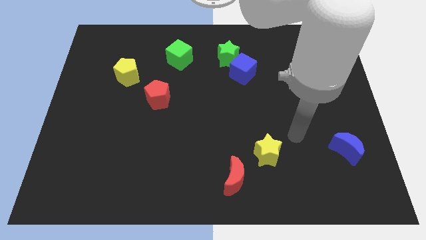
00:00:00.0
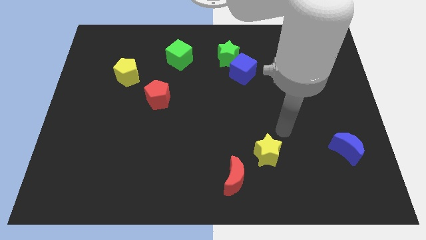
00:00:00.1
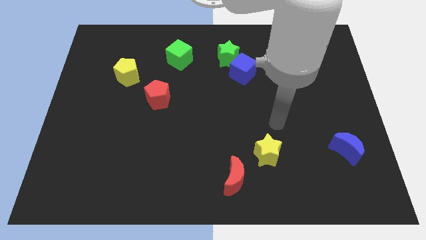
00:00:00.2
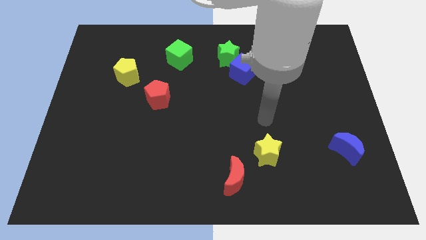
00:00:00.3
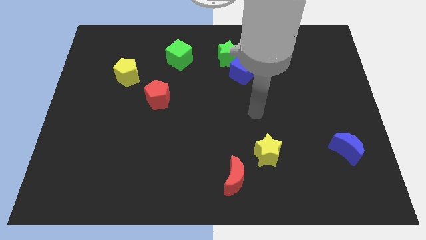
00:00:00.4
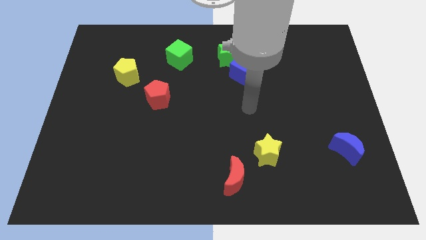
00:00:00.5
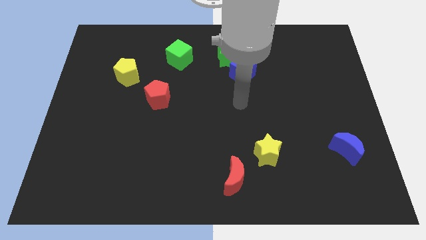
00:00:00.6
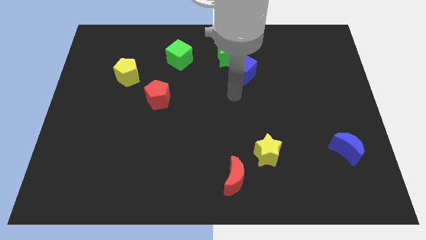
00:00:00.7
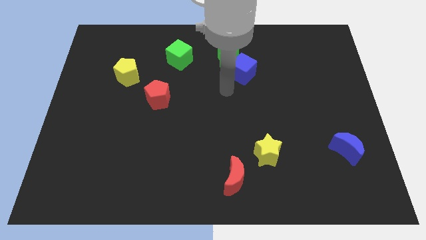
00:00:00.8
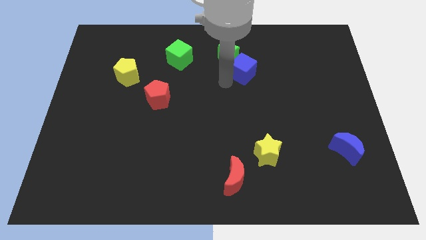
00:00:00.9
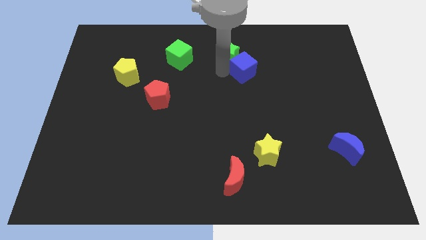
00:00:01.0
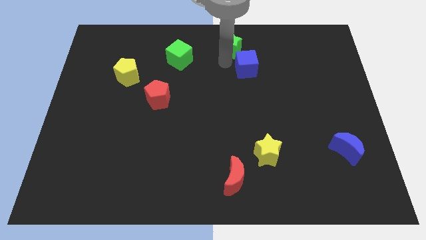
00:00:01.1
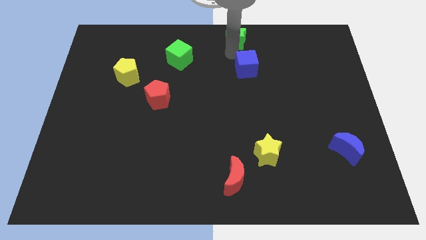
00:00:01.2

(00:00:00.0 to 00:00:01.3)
separate the blue cube from the green star

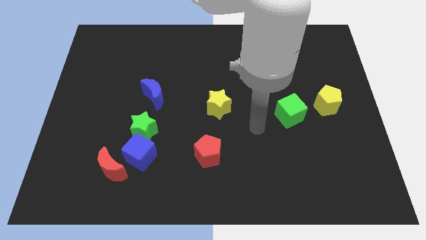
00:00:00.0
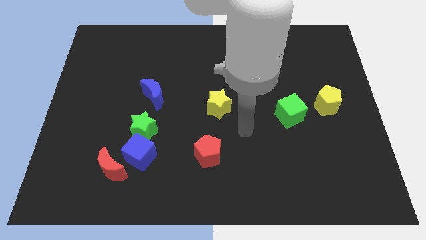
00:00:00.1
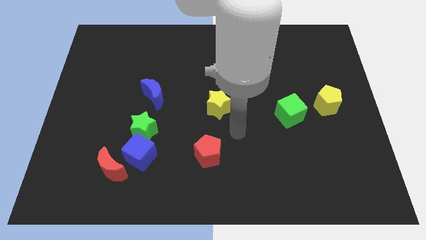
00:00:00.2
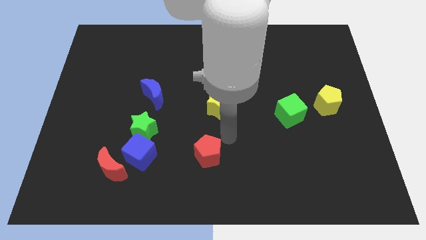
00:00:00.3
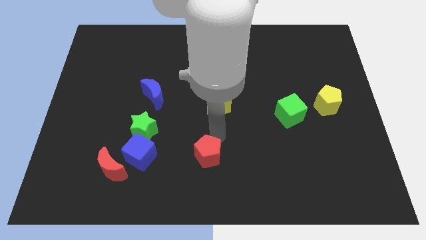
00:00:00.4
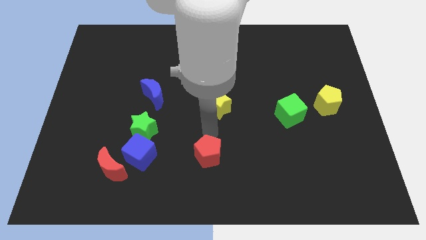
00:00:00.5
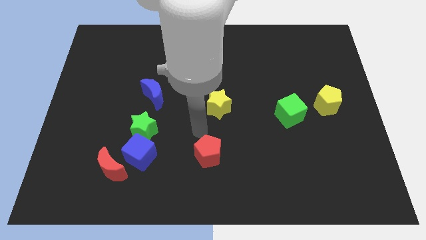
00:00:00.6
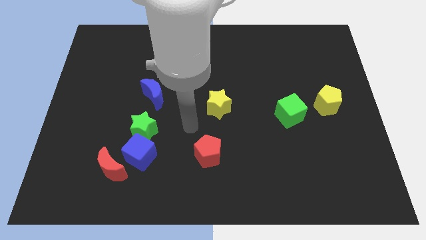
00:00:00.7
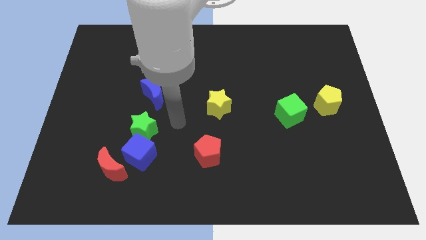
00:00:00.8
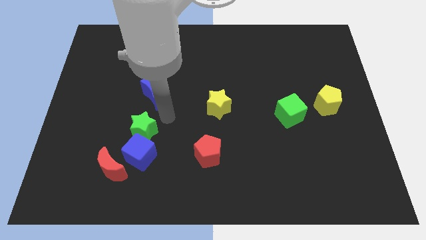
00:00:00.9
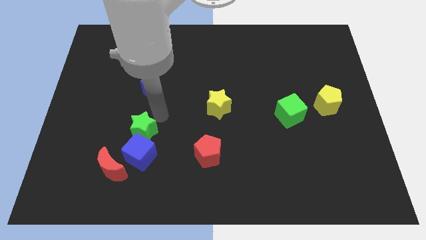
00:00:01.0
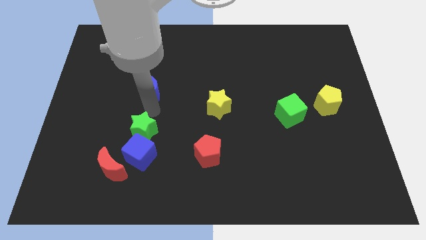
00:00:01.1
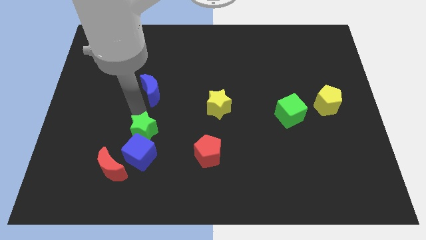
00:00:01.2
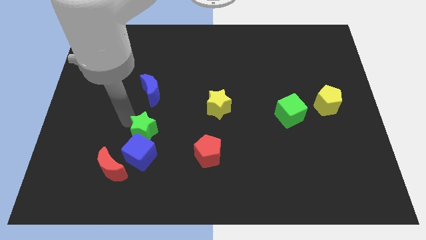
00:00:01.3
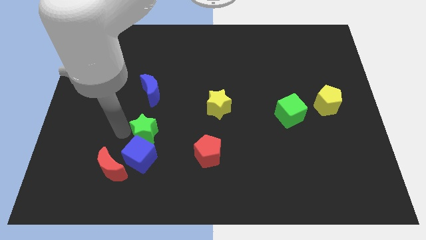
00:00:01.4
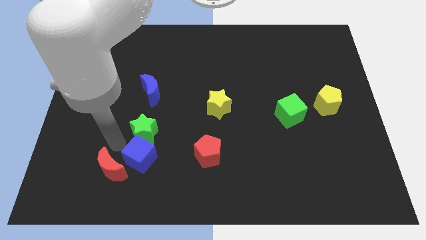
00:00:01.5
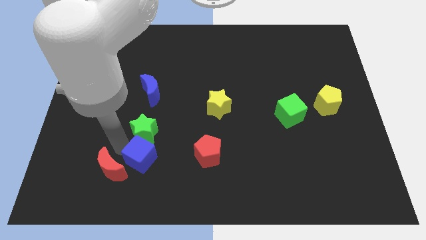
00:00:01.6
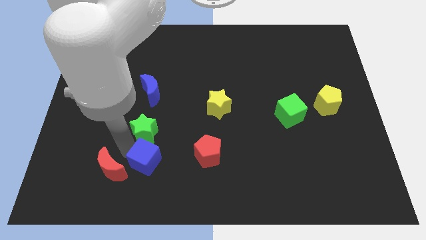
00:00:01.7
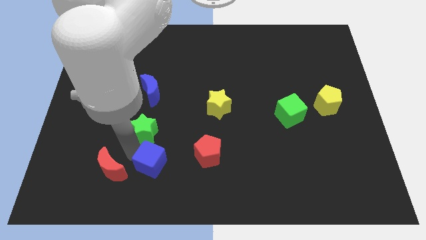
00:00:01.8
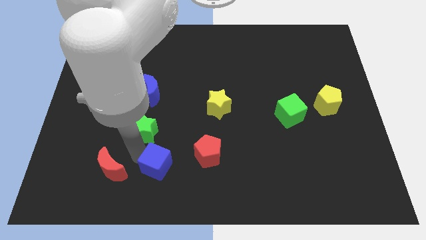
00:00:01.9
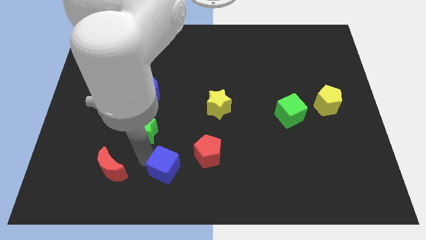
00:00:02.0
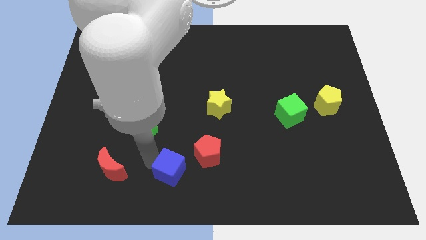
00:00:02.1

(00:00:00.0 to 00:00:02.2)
move the blue cube away from the green star and red moon

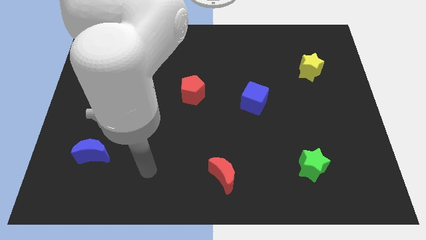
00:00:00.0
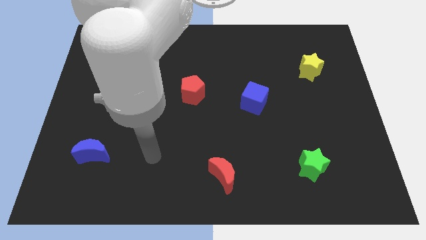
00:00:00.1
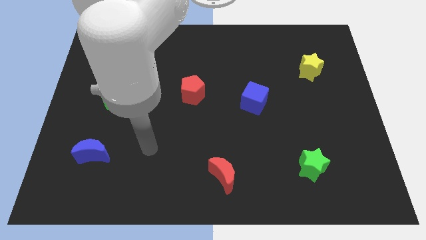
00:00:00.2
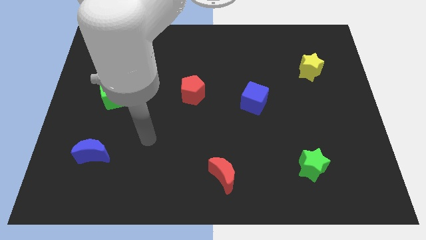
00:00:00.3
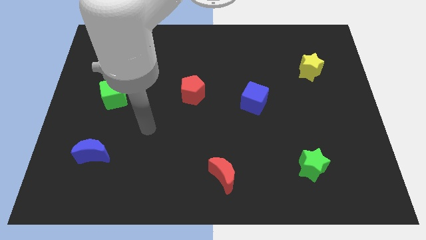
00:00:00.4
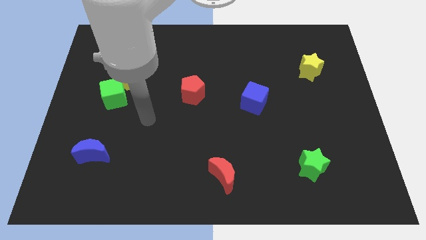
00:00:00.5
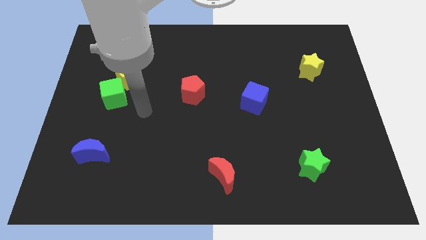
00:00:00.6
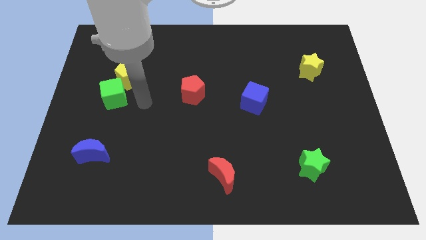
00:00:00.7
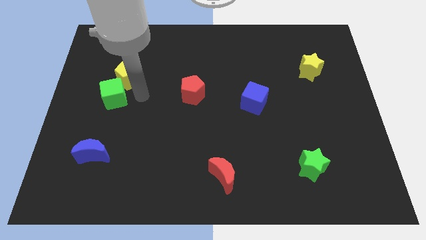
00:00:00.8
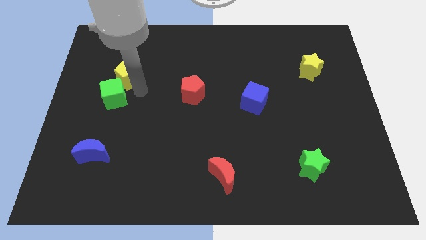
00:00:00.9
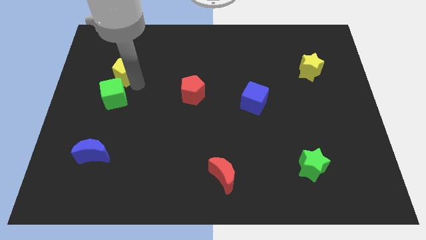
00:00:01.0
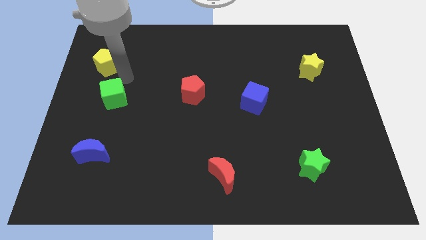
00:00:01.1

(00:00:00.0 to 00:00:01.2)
separate the green cube from the yellow pentagon

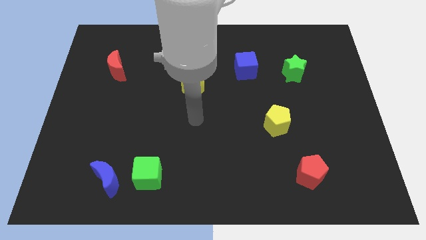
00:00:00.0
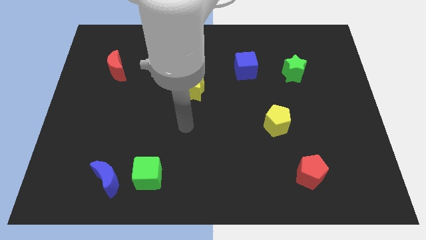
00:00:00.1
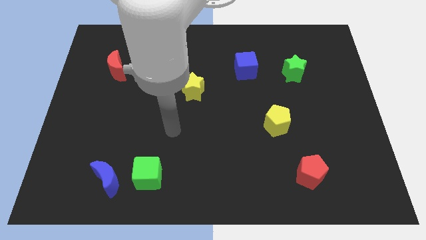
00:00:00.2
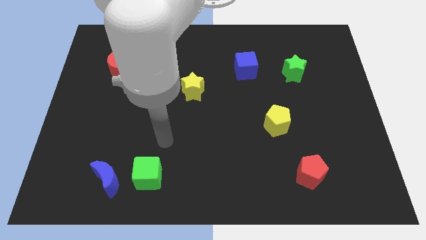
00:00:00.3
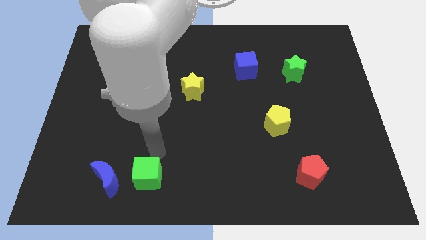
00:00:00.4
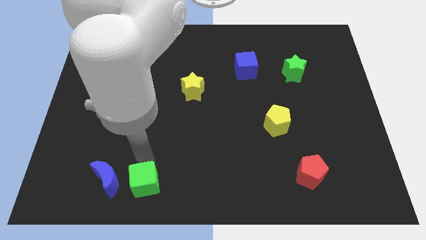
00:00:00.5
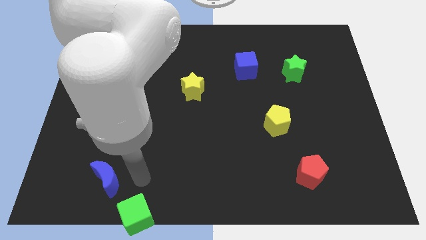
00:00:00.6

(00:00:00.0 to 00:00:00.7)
separate the blue moon from the green cube

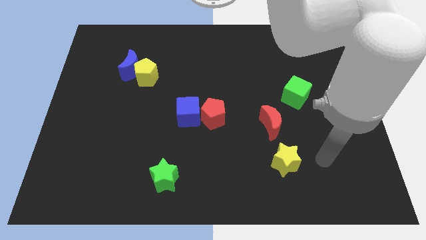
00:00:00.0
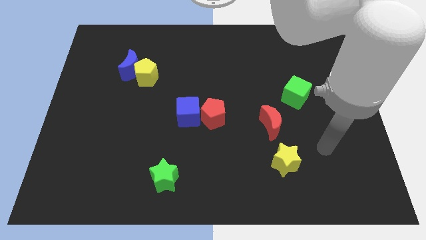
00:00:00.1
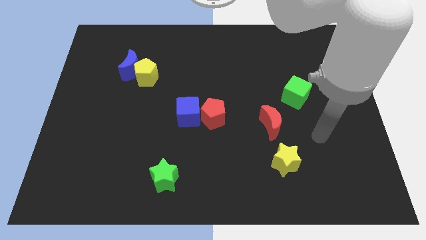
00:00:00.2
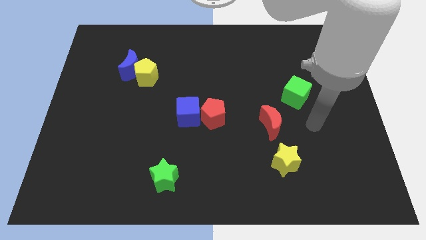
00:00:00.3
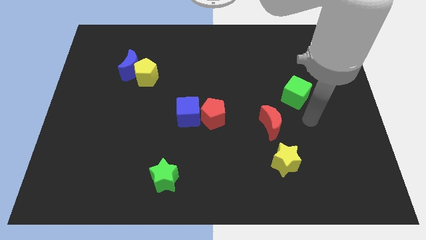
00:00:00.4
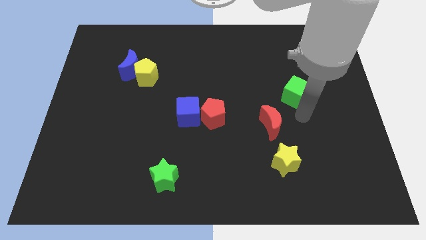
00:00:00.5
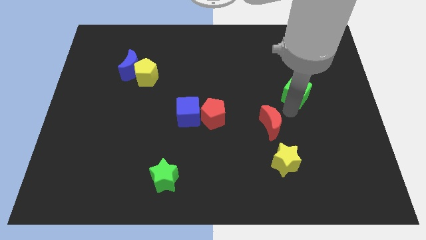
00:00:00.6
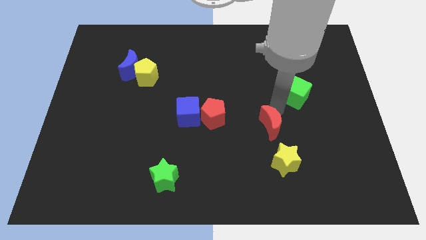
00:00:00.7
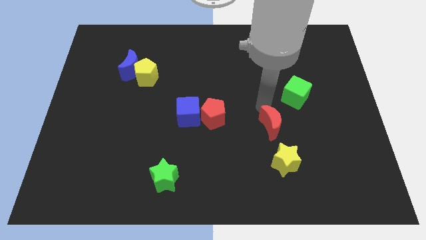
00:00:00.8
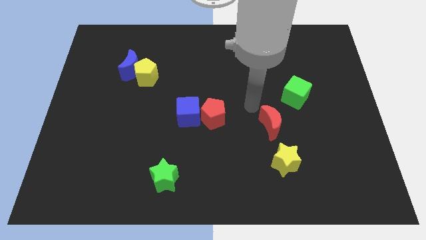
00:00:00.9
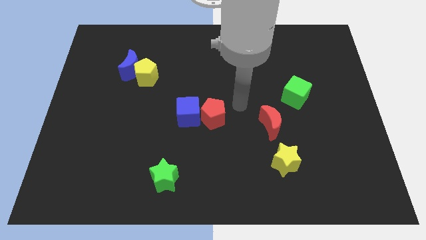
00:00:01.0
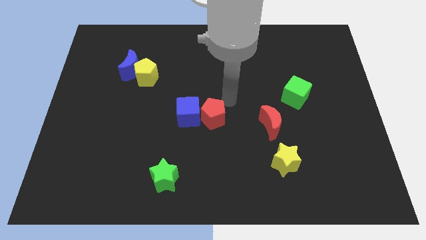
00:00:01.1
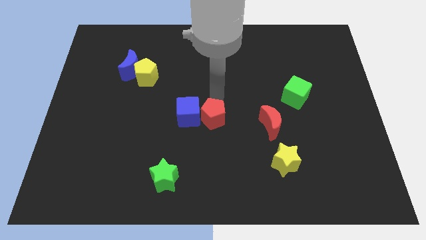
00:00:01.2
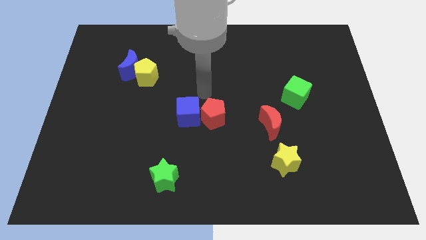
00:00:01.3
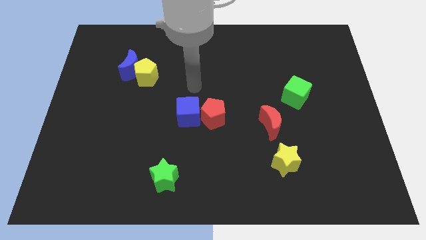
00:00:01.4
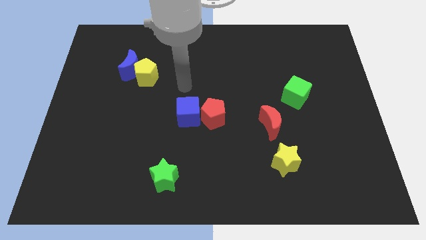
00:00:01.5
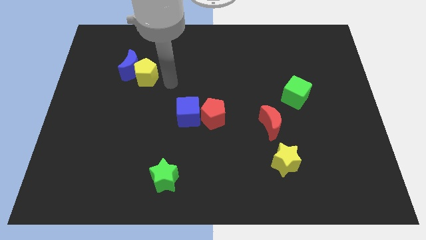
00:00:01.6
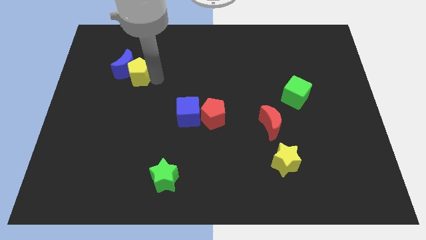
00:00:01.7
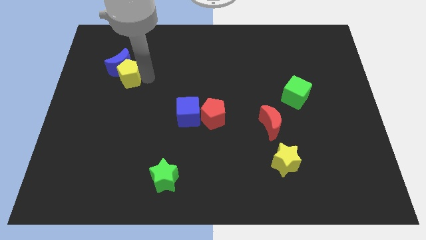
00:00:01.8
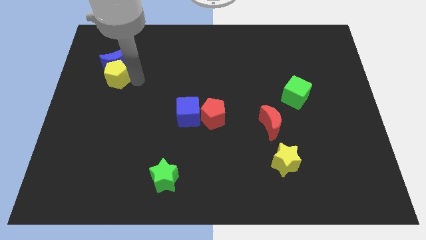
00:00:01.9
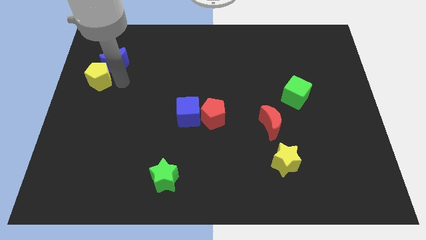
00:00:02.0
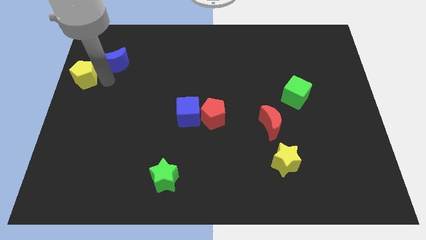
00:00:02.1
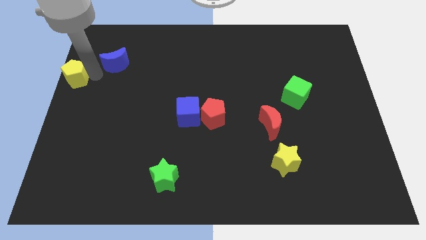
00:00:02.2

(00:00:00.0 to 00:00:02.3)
pull the blue moon apart from the yellow pentagon

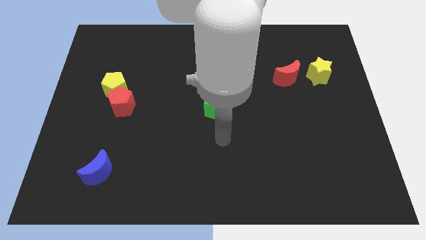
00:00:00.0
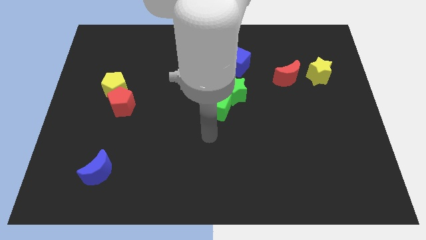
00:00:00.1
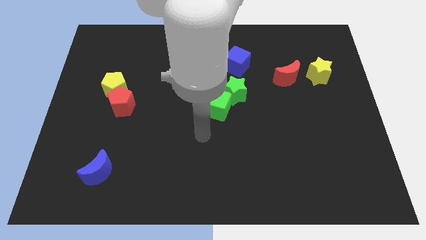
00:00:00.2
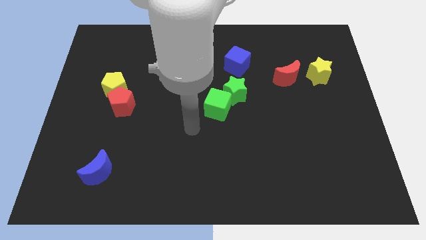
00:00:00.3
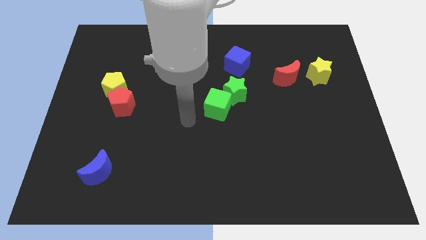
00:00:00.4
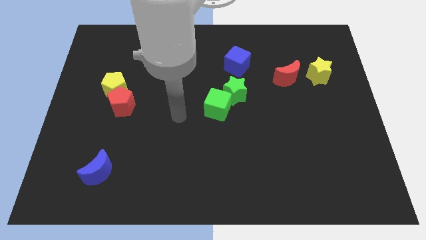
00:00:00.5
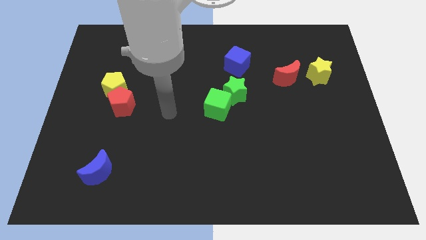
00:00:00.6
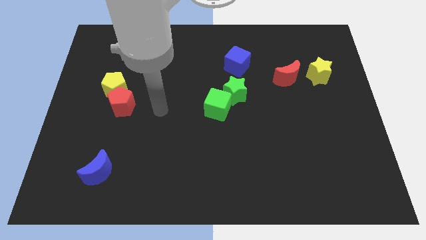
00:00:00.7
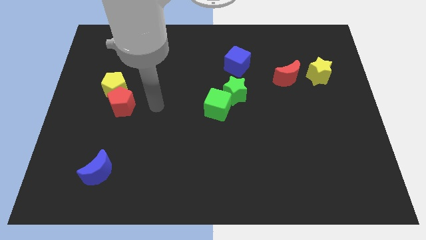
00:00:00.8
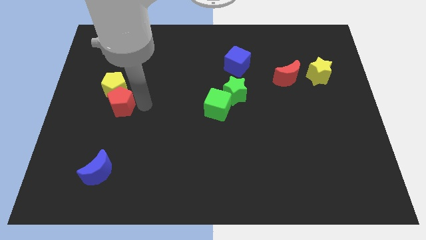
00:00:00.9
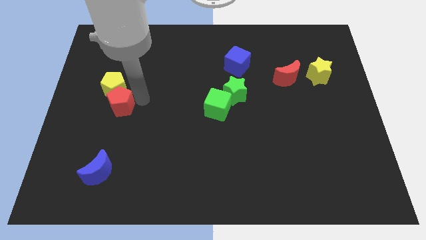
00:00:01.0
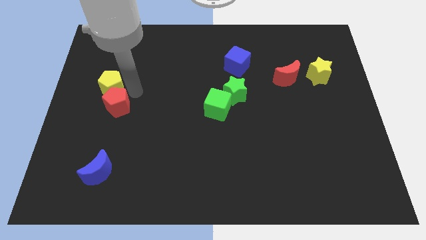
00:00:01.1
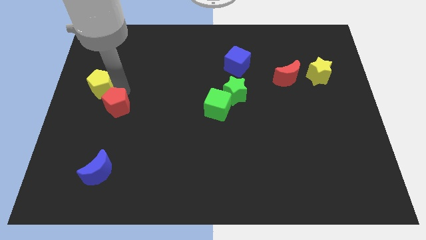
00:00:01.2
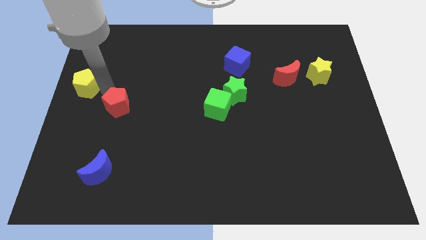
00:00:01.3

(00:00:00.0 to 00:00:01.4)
move the red pentagon away from the yellow pentagon

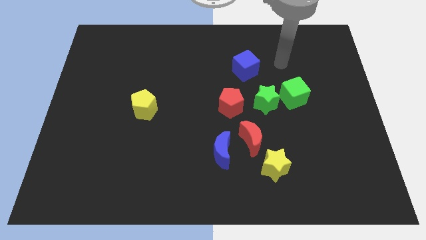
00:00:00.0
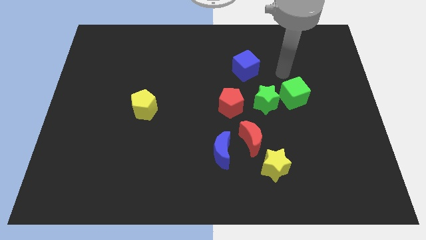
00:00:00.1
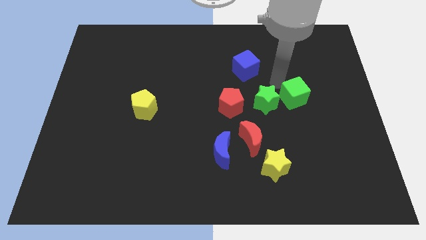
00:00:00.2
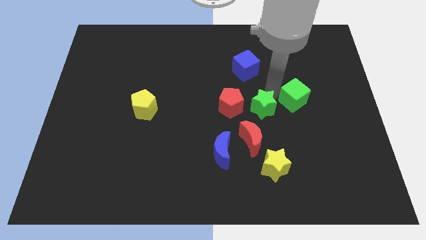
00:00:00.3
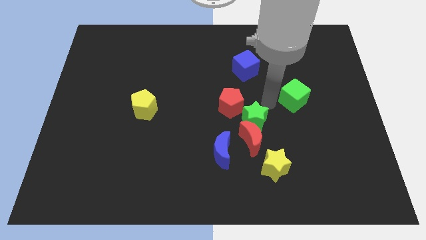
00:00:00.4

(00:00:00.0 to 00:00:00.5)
pull the green cube apart from the green star
